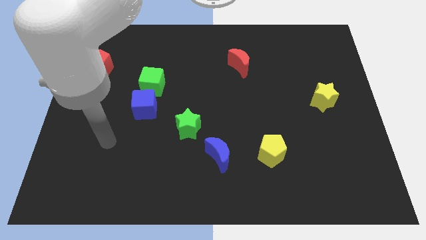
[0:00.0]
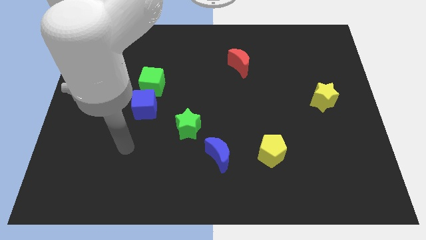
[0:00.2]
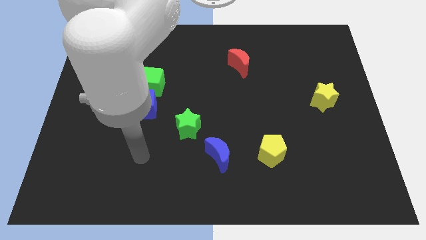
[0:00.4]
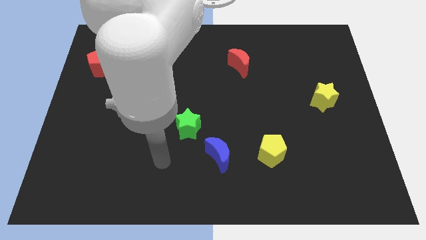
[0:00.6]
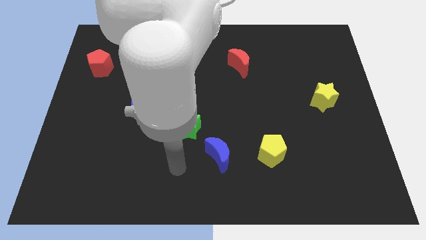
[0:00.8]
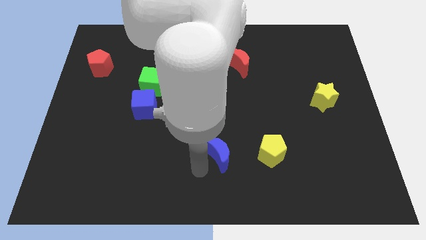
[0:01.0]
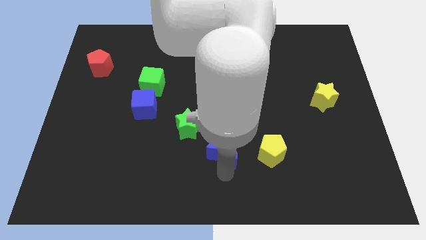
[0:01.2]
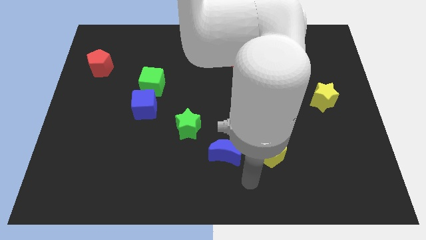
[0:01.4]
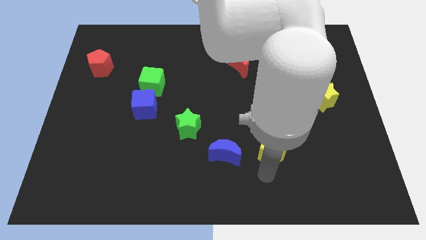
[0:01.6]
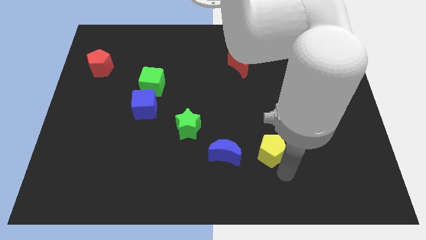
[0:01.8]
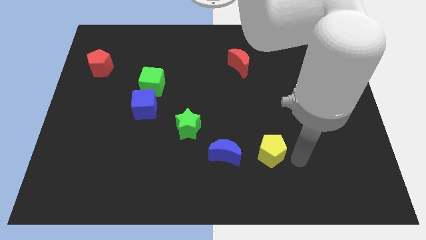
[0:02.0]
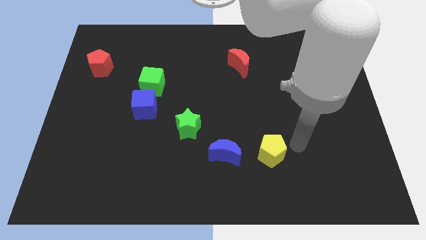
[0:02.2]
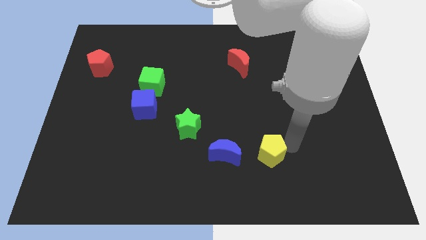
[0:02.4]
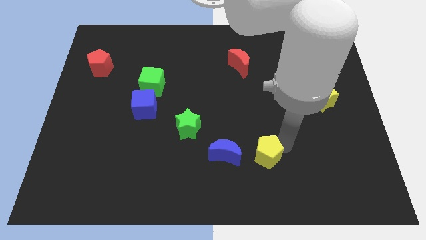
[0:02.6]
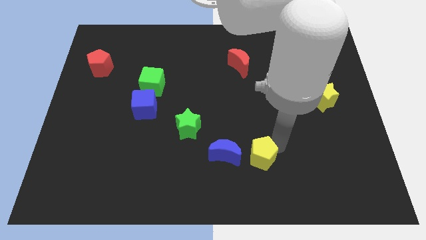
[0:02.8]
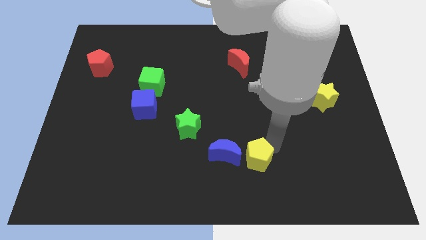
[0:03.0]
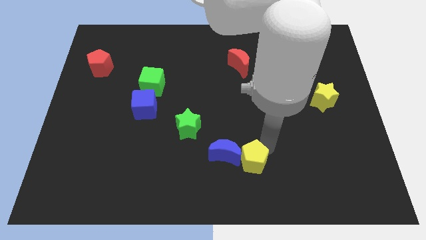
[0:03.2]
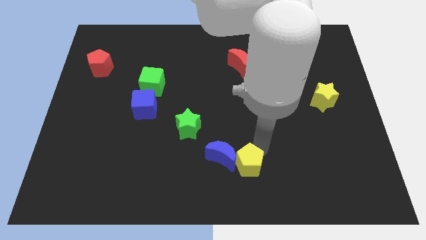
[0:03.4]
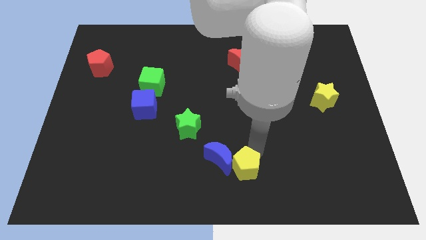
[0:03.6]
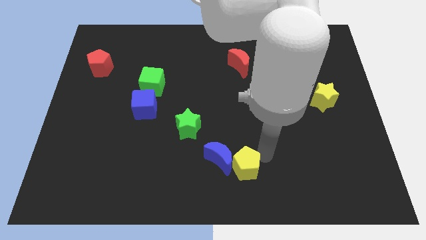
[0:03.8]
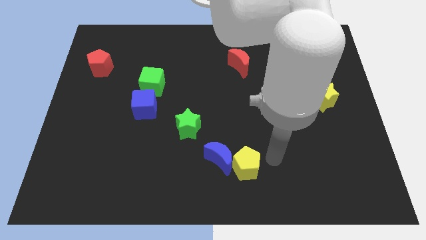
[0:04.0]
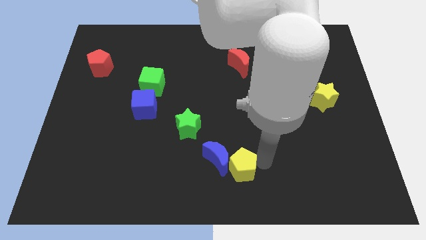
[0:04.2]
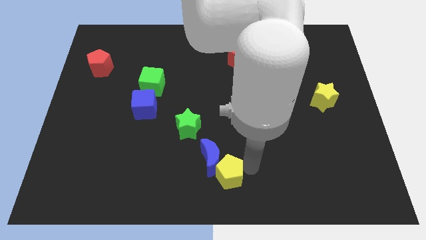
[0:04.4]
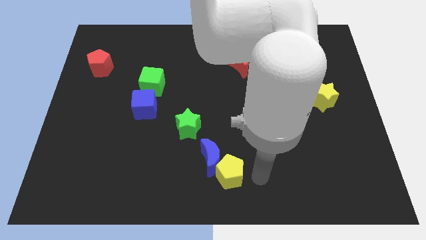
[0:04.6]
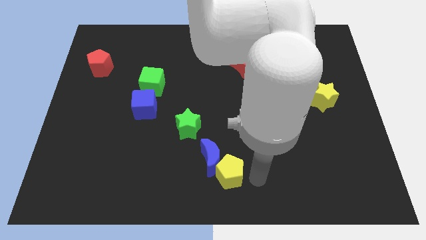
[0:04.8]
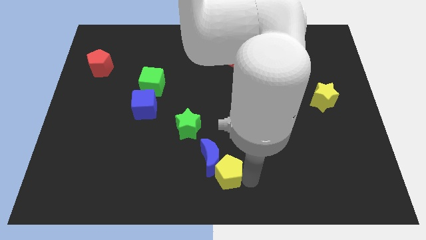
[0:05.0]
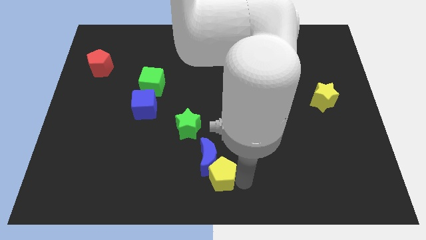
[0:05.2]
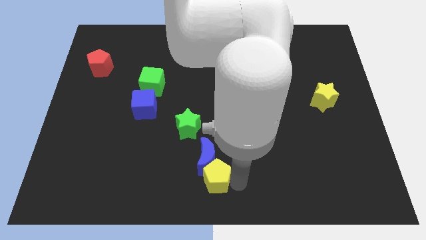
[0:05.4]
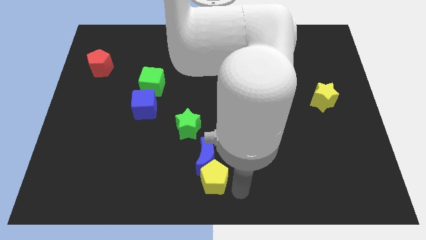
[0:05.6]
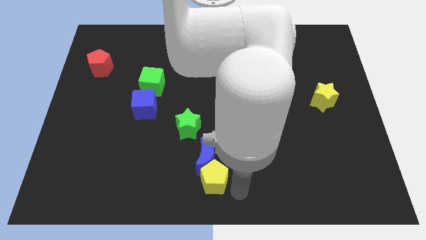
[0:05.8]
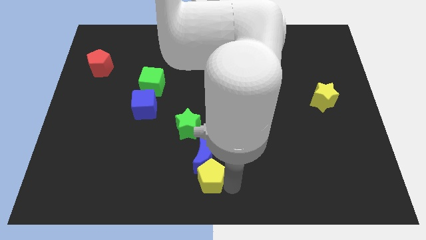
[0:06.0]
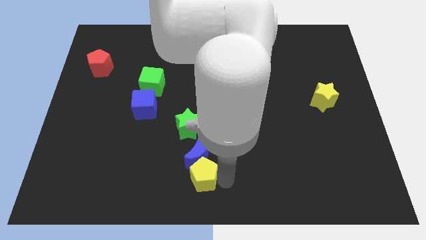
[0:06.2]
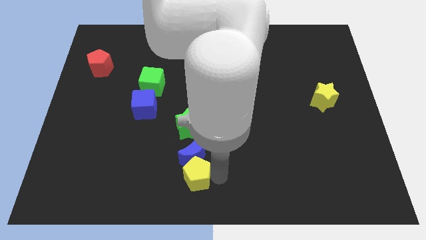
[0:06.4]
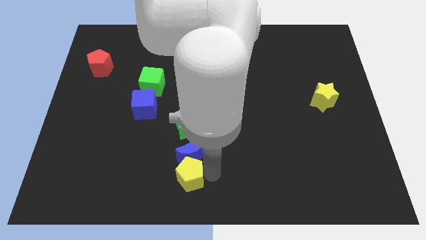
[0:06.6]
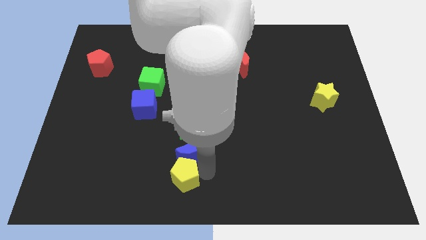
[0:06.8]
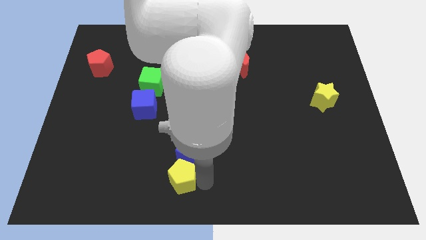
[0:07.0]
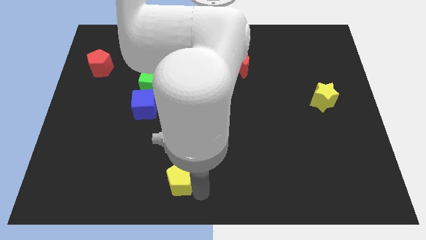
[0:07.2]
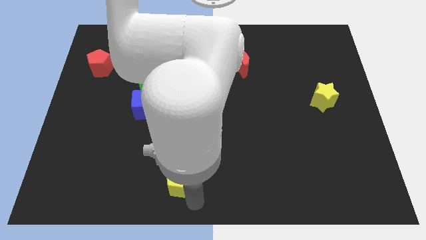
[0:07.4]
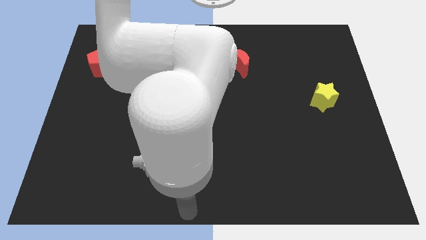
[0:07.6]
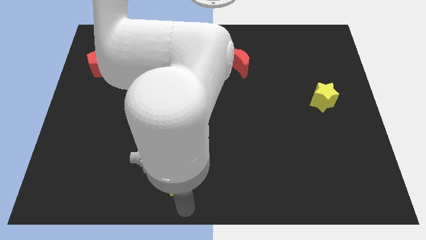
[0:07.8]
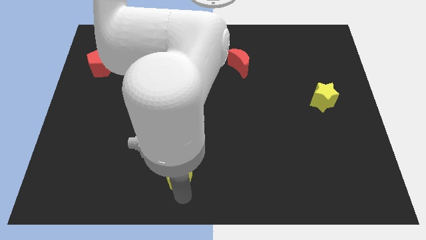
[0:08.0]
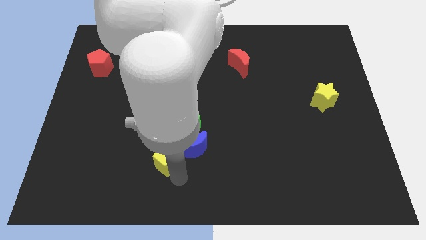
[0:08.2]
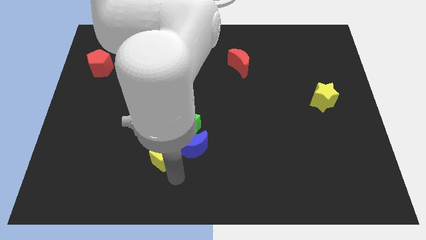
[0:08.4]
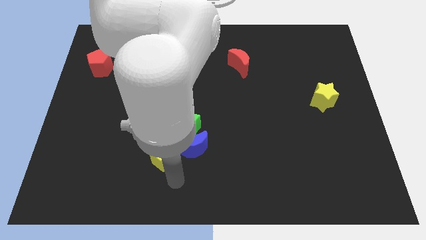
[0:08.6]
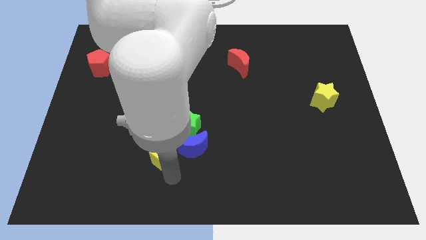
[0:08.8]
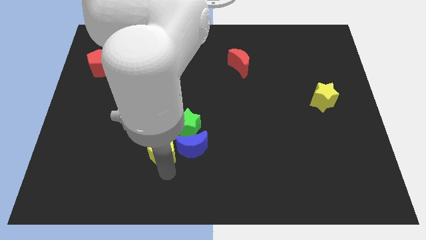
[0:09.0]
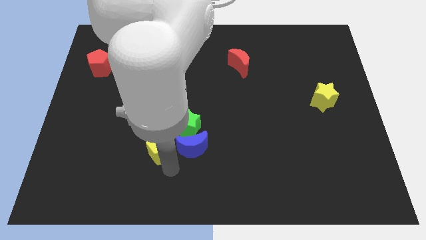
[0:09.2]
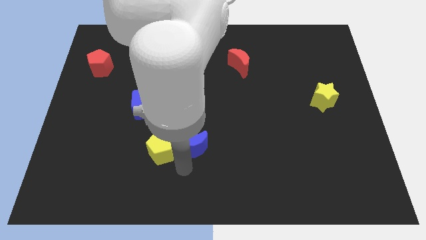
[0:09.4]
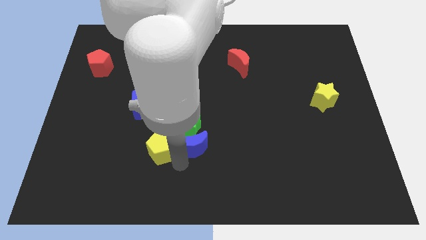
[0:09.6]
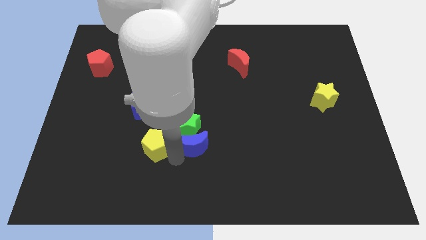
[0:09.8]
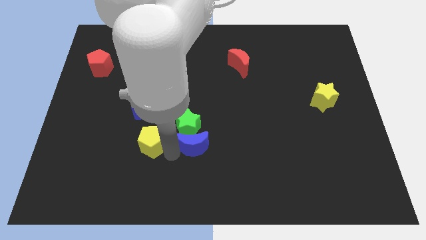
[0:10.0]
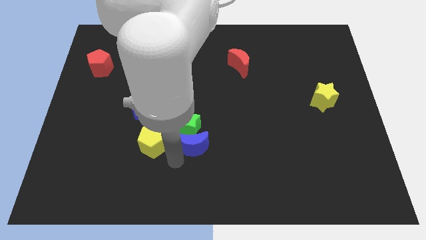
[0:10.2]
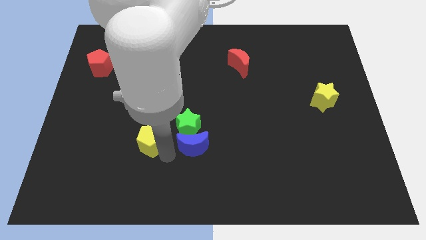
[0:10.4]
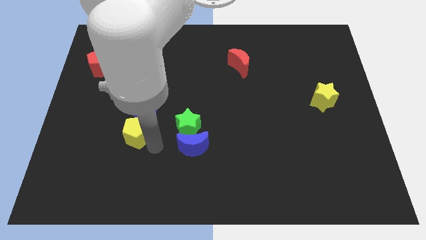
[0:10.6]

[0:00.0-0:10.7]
put the yellow pentagon to the bottom left of the blue cube
